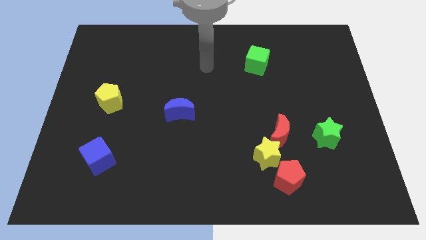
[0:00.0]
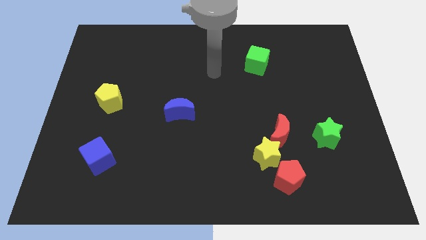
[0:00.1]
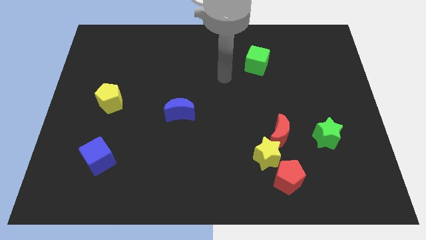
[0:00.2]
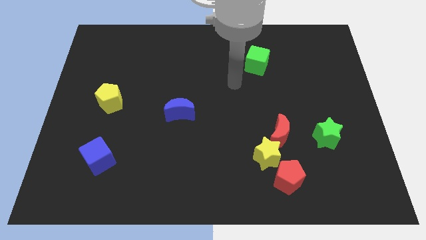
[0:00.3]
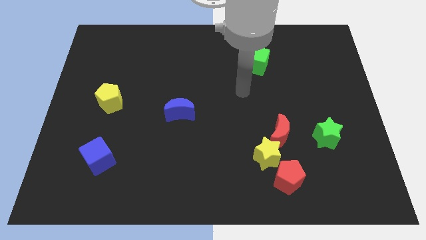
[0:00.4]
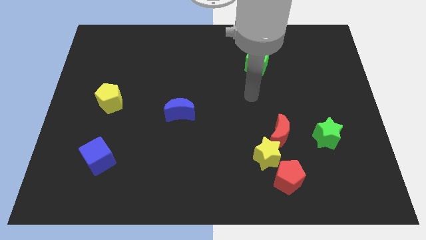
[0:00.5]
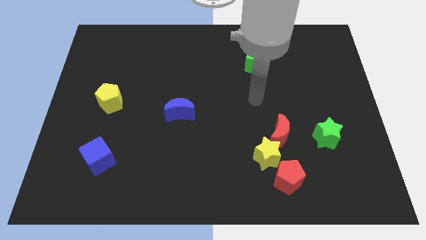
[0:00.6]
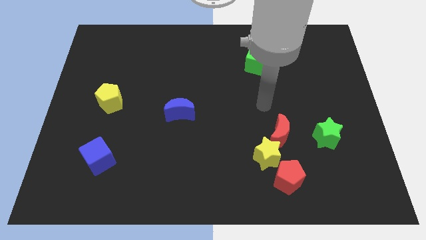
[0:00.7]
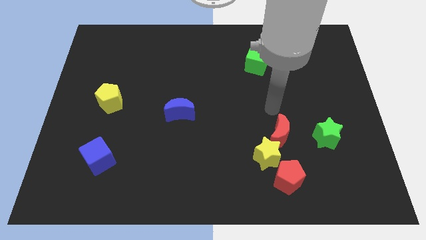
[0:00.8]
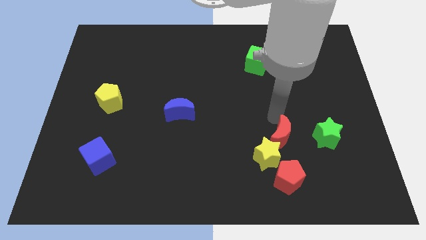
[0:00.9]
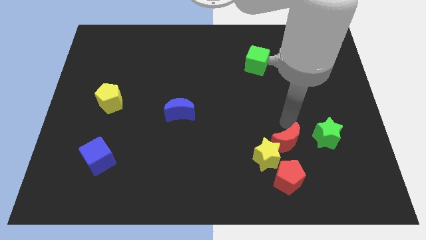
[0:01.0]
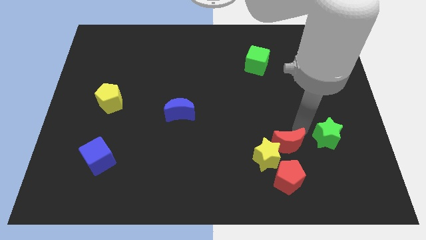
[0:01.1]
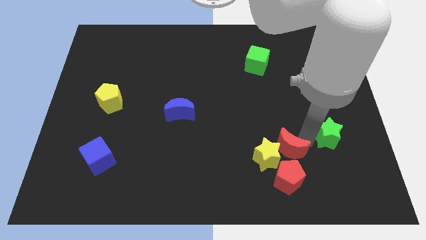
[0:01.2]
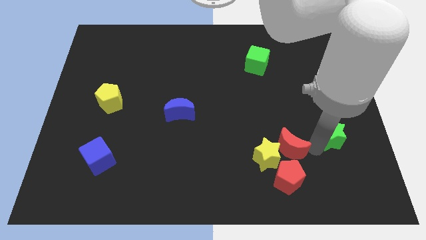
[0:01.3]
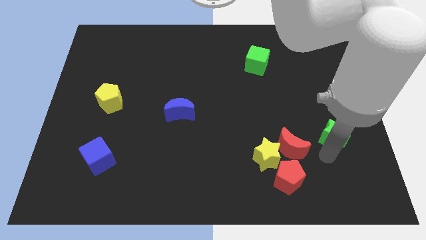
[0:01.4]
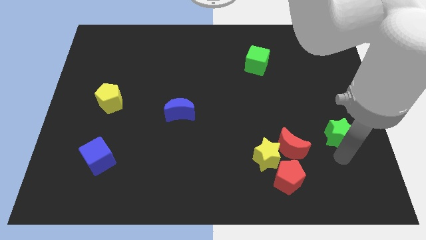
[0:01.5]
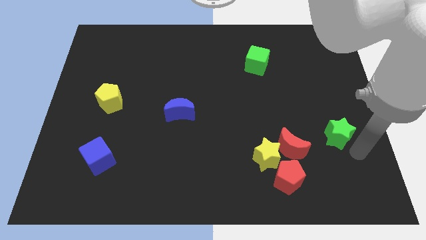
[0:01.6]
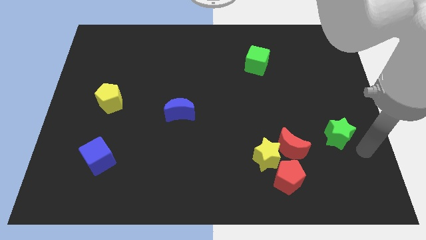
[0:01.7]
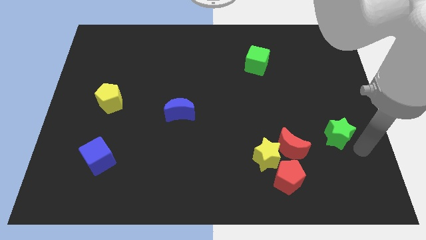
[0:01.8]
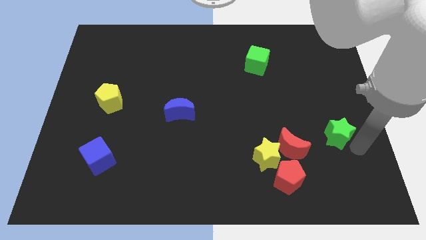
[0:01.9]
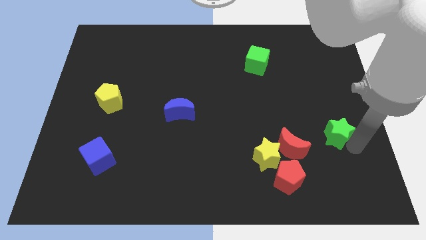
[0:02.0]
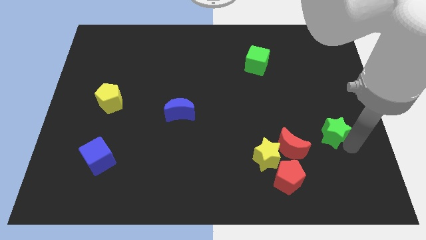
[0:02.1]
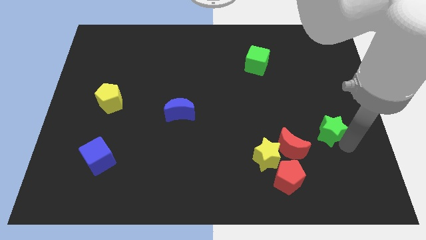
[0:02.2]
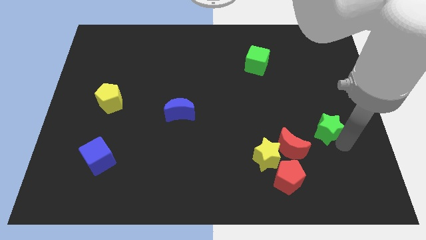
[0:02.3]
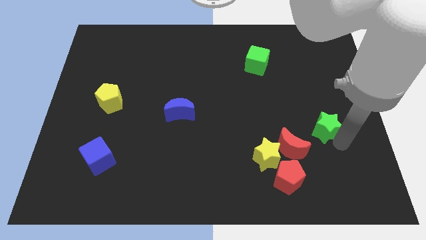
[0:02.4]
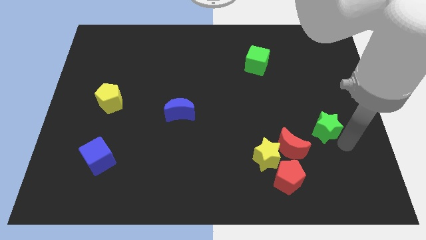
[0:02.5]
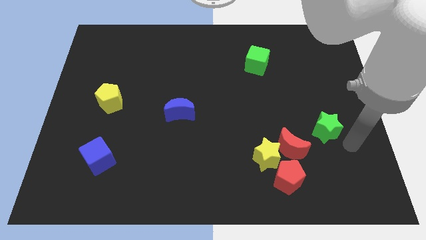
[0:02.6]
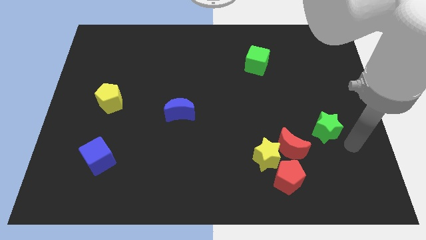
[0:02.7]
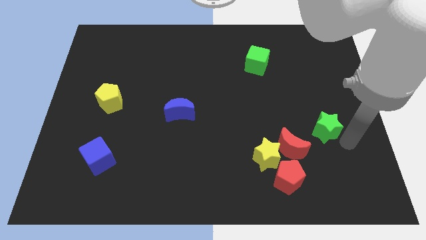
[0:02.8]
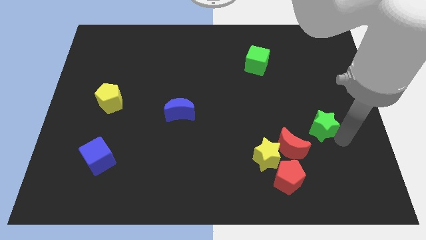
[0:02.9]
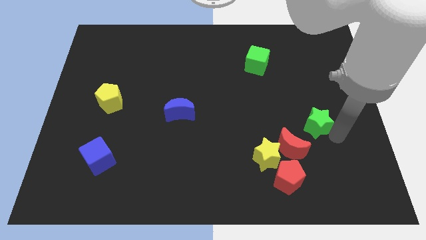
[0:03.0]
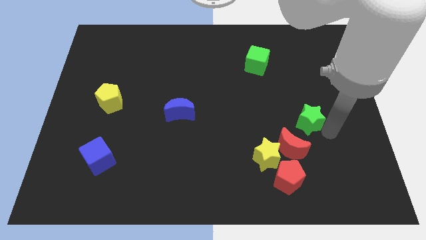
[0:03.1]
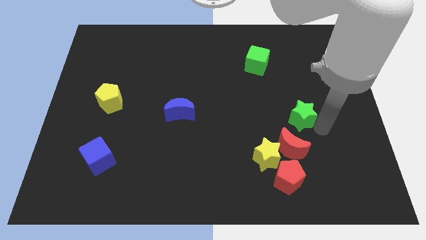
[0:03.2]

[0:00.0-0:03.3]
slightly move the green star diagonally up and to the left

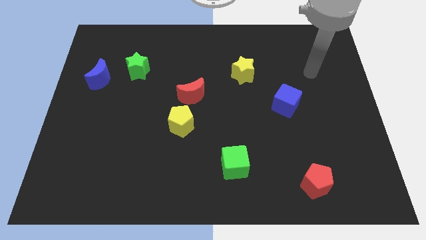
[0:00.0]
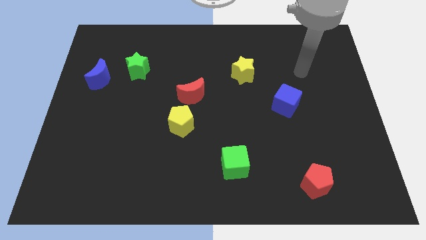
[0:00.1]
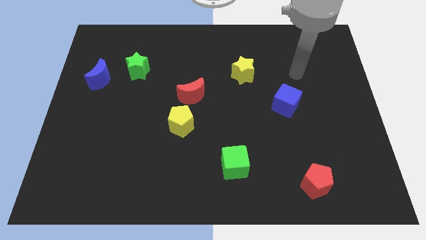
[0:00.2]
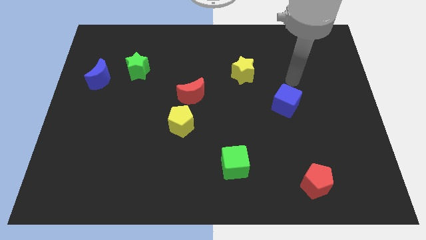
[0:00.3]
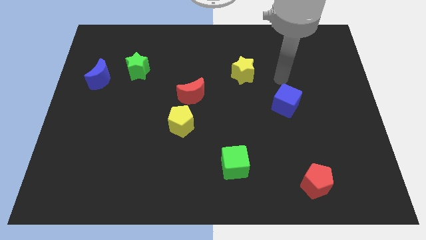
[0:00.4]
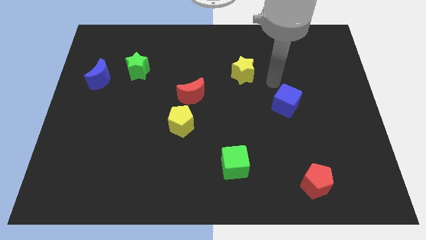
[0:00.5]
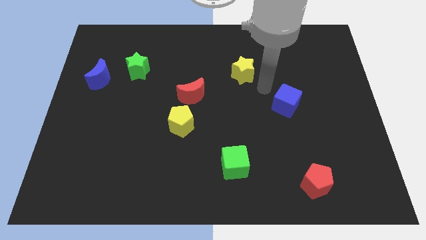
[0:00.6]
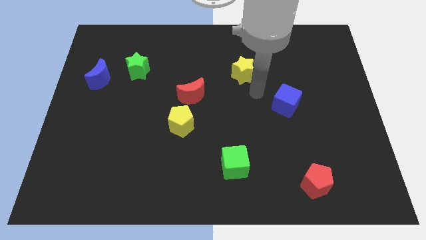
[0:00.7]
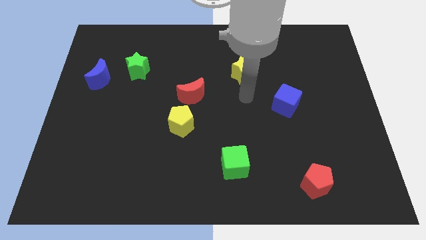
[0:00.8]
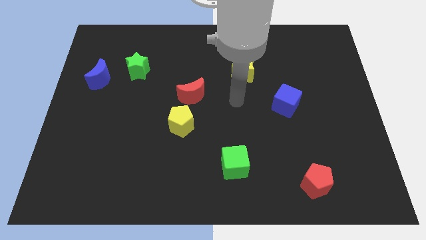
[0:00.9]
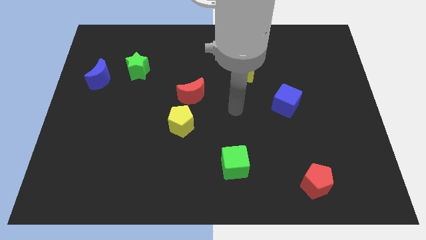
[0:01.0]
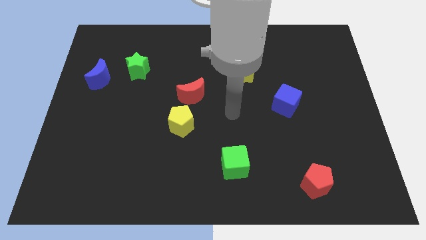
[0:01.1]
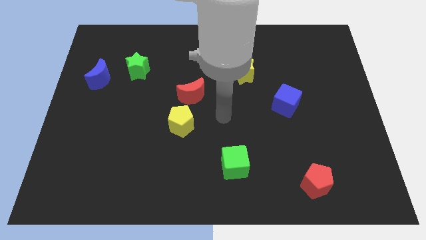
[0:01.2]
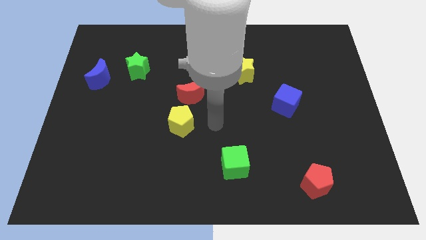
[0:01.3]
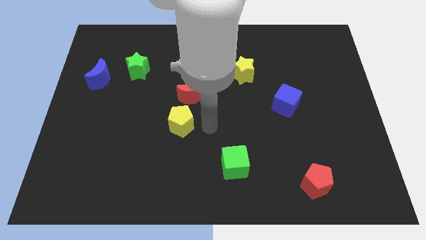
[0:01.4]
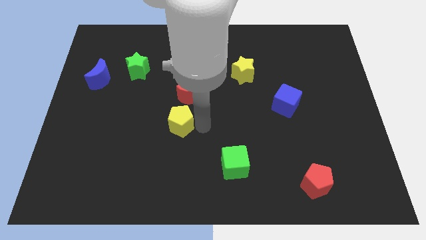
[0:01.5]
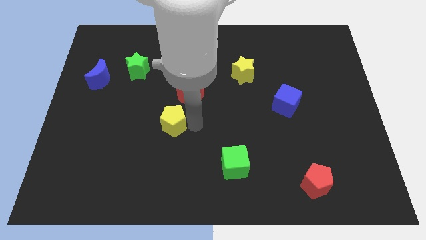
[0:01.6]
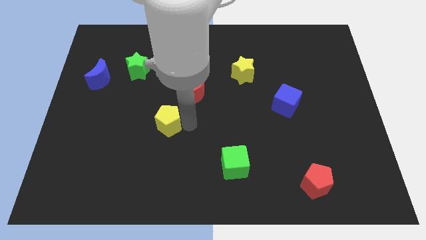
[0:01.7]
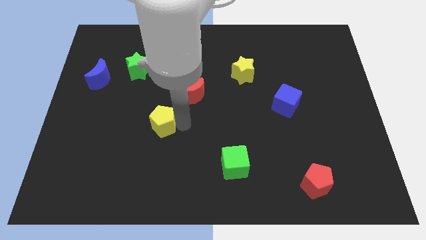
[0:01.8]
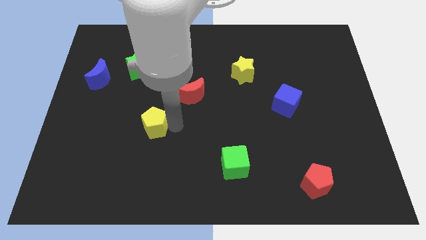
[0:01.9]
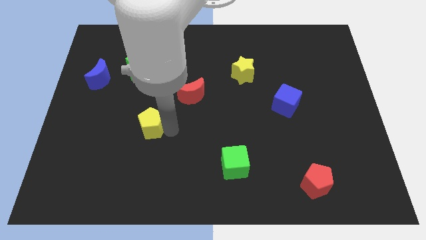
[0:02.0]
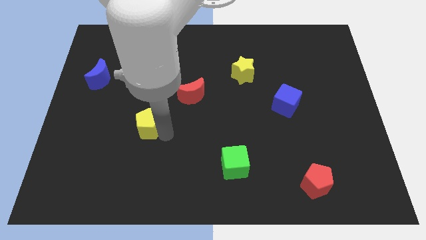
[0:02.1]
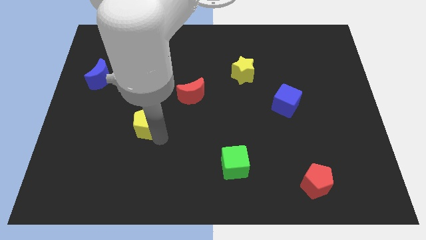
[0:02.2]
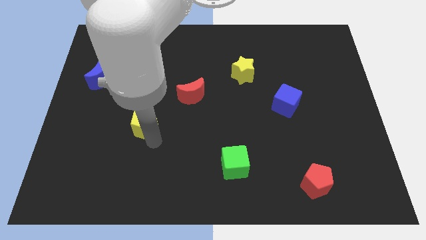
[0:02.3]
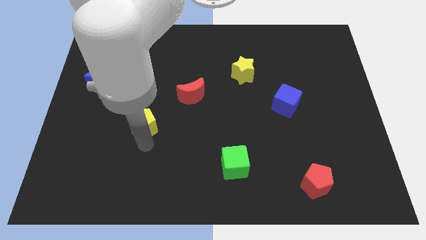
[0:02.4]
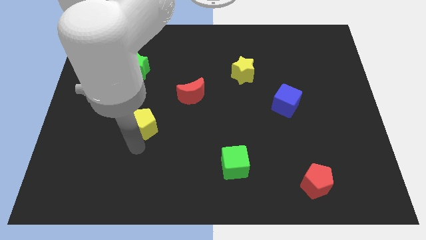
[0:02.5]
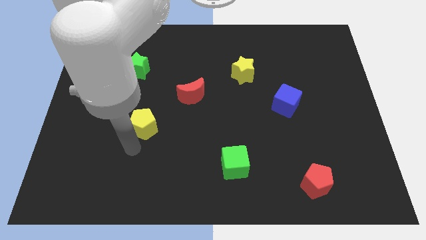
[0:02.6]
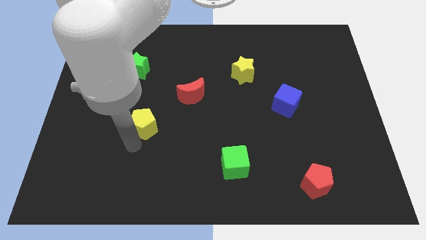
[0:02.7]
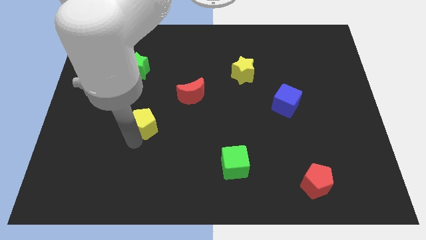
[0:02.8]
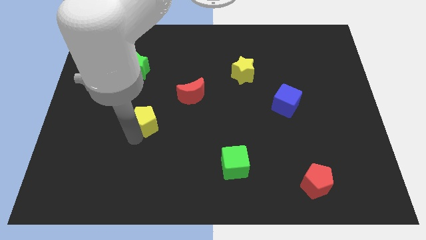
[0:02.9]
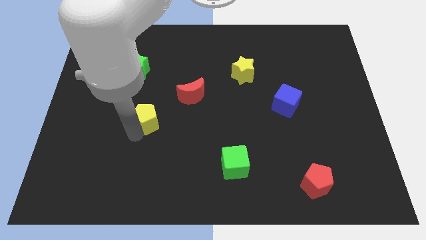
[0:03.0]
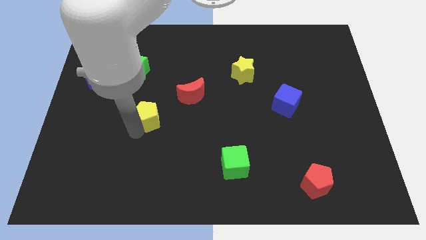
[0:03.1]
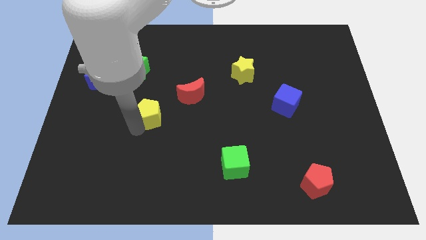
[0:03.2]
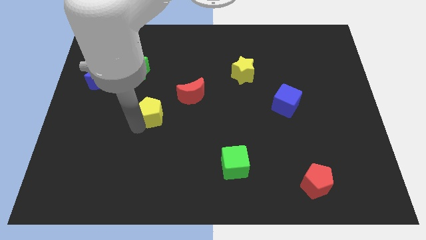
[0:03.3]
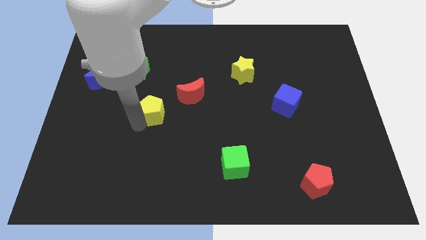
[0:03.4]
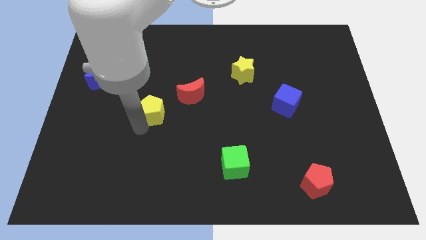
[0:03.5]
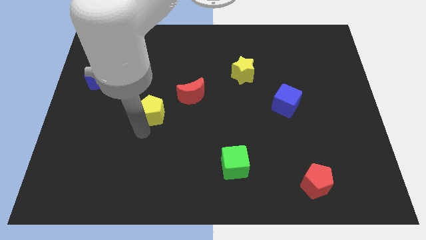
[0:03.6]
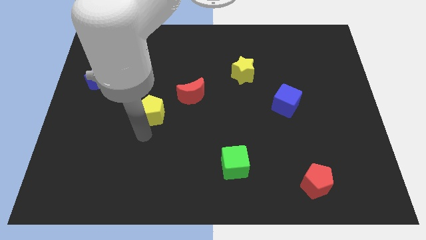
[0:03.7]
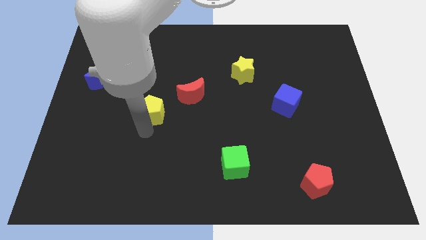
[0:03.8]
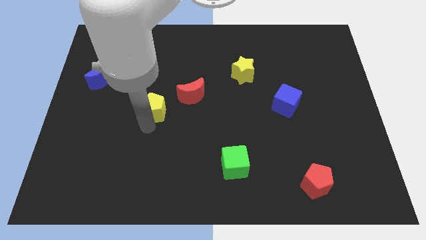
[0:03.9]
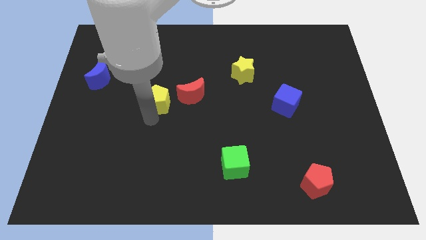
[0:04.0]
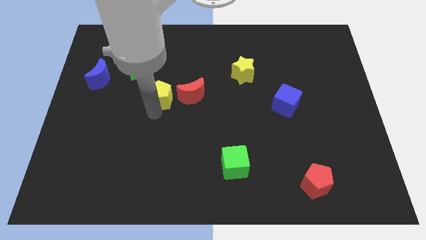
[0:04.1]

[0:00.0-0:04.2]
slightly slide the yellow pentagon upwards

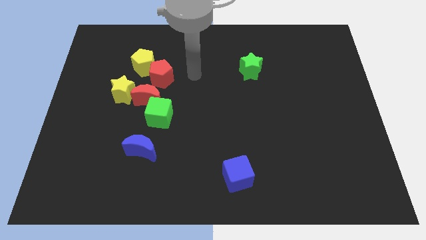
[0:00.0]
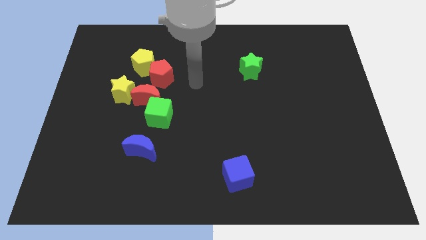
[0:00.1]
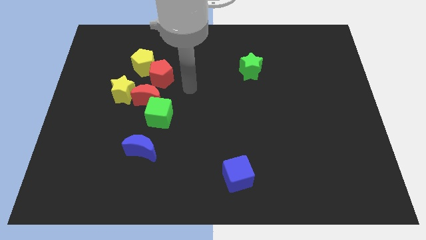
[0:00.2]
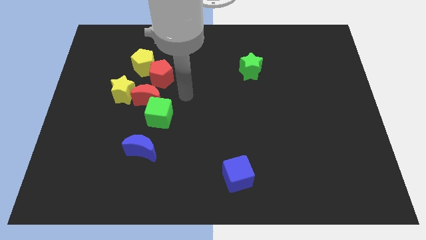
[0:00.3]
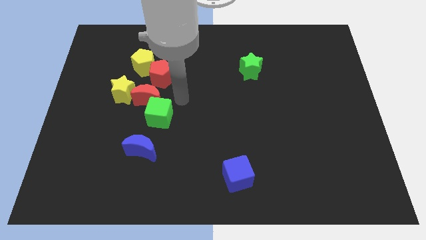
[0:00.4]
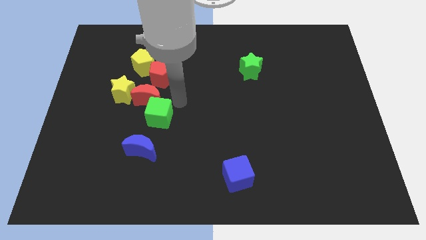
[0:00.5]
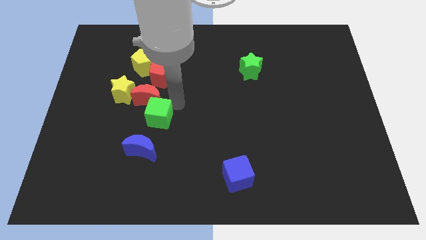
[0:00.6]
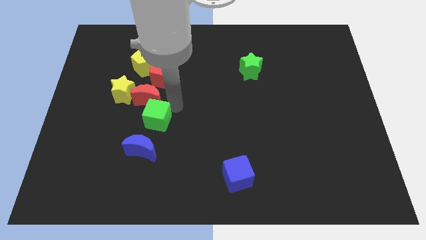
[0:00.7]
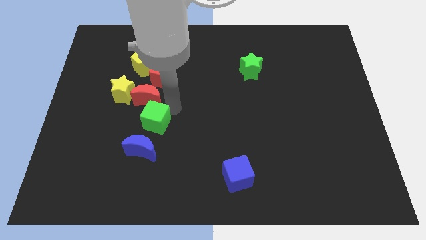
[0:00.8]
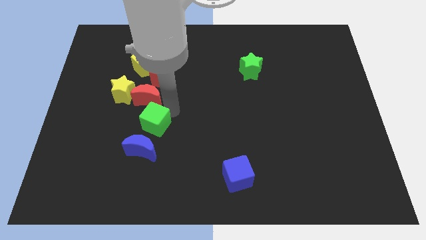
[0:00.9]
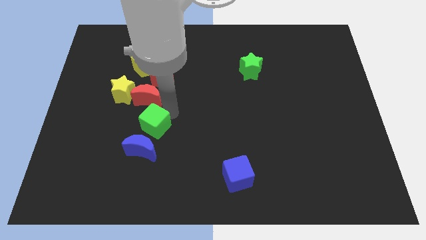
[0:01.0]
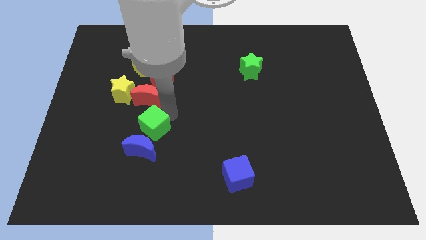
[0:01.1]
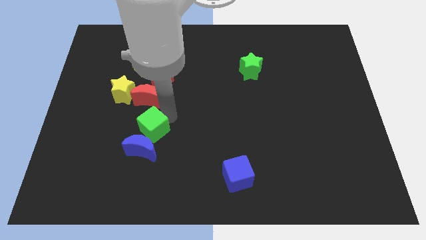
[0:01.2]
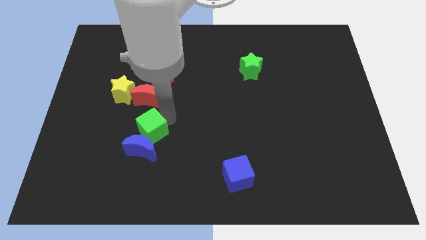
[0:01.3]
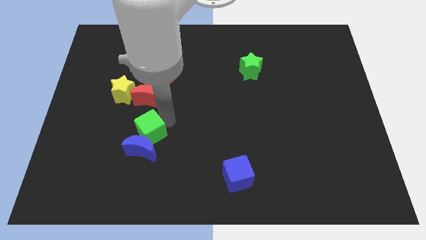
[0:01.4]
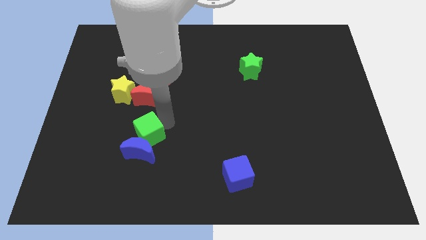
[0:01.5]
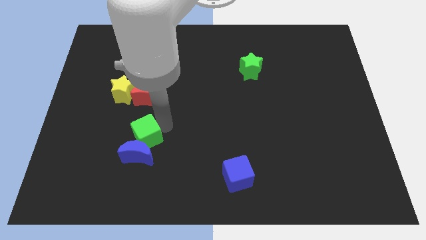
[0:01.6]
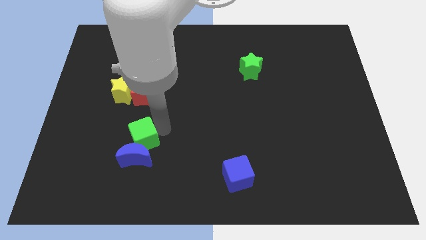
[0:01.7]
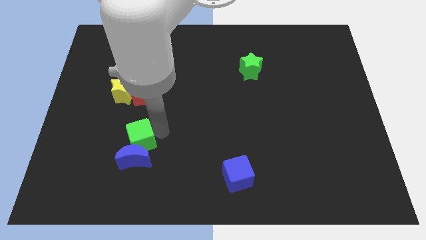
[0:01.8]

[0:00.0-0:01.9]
move the green cube slightly downwards and to the left diagonally
